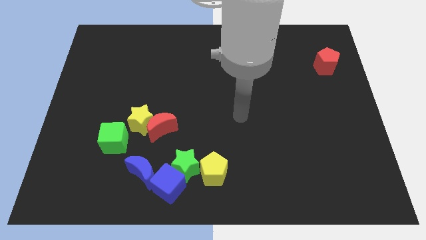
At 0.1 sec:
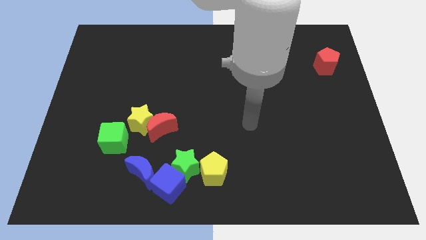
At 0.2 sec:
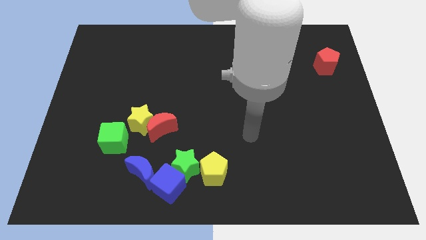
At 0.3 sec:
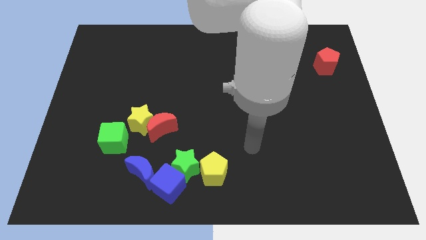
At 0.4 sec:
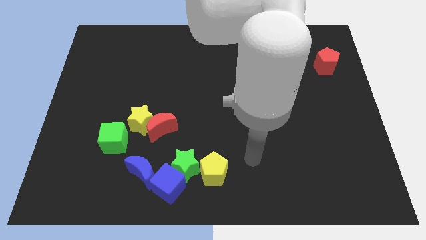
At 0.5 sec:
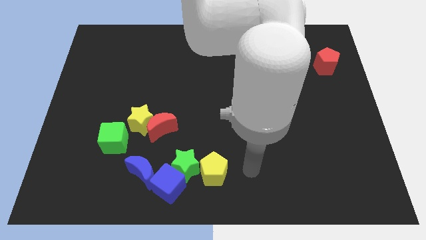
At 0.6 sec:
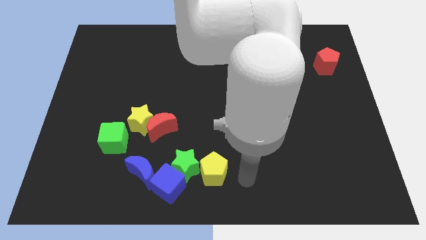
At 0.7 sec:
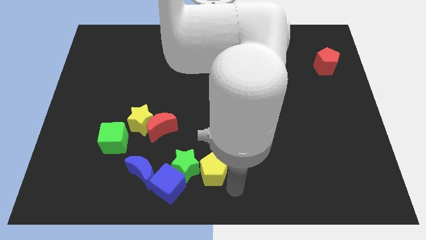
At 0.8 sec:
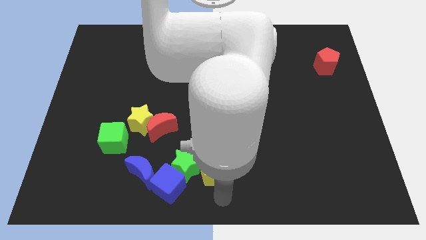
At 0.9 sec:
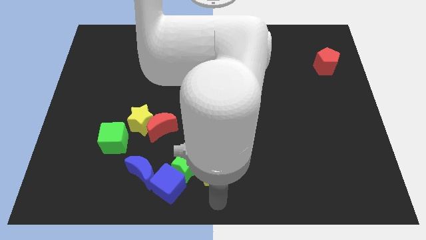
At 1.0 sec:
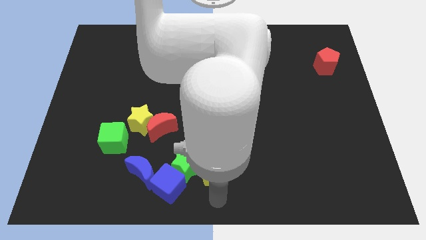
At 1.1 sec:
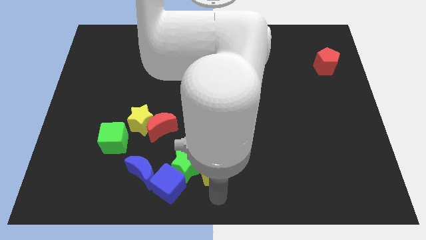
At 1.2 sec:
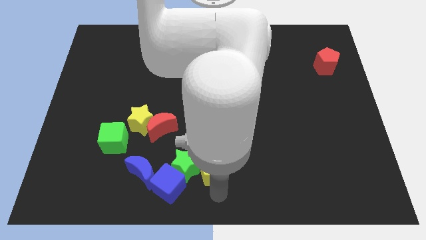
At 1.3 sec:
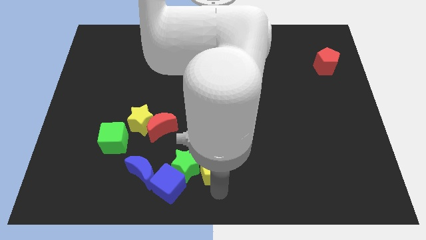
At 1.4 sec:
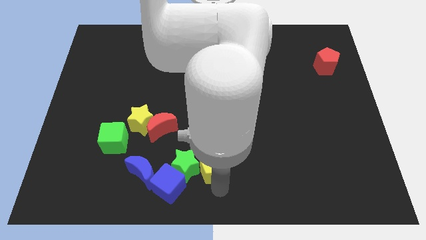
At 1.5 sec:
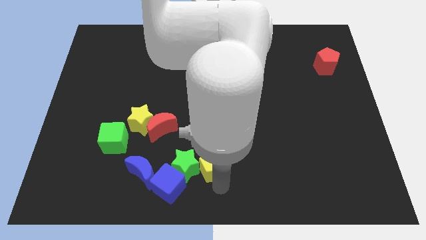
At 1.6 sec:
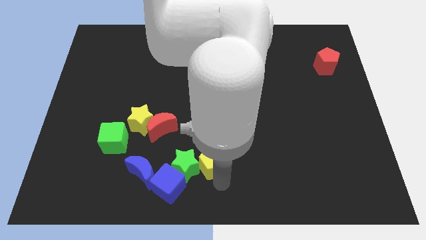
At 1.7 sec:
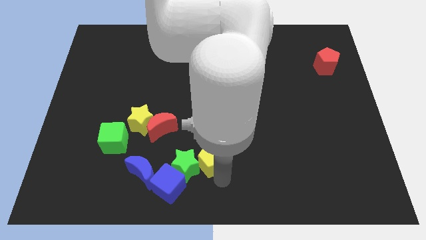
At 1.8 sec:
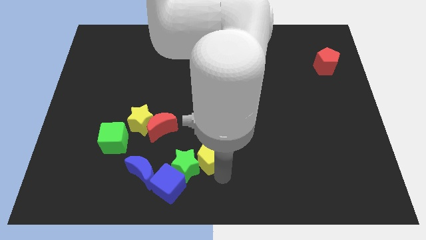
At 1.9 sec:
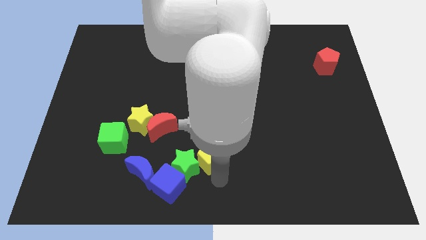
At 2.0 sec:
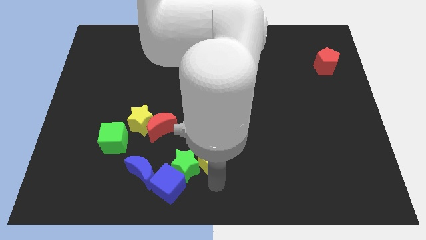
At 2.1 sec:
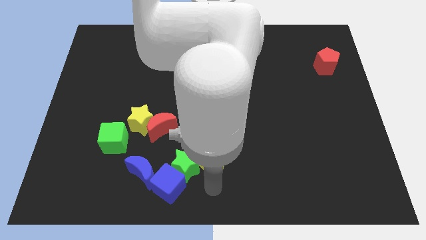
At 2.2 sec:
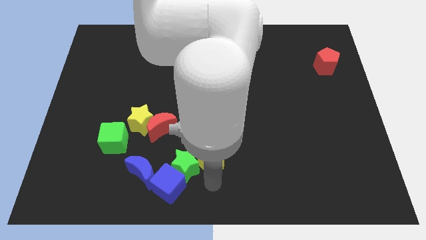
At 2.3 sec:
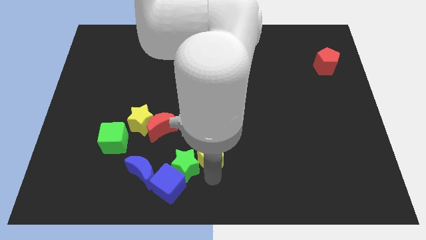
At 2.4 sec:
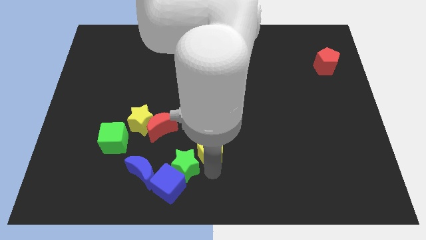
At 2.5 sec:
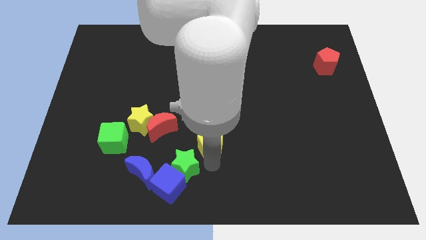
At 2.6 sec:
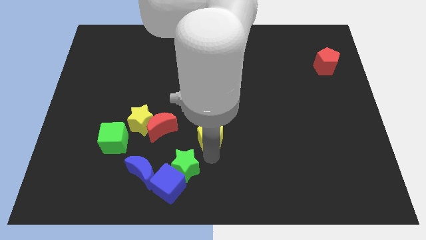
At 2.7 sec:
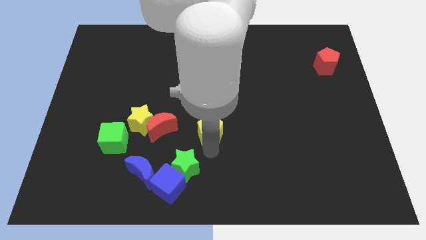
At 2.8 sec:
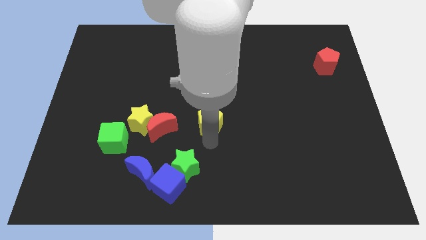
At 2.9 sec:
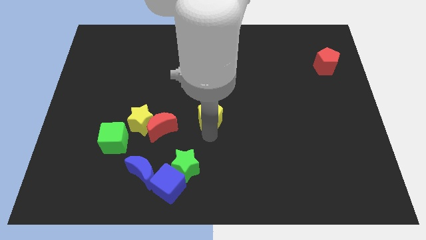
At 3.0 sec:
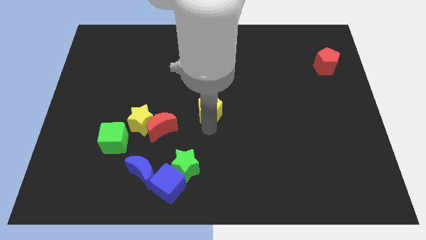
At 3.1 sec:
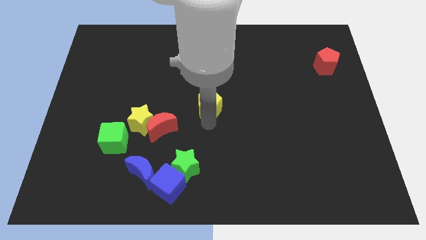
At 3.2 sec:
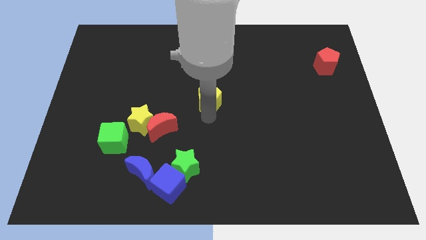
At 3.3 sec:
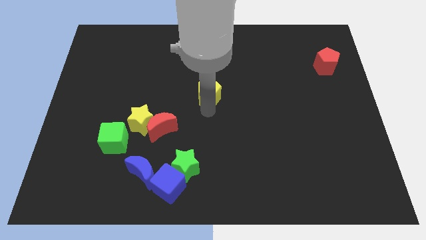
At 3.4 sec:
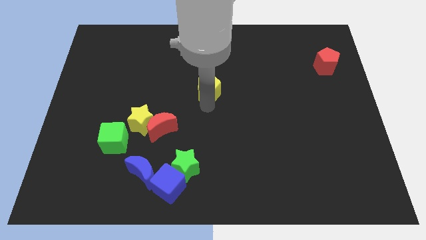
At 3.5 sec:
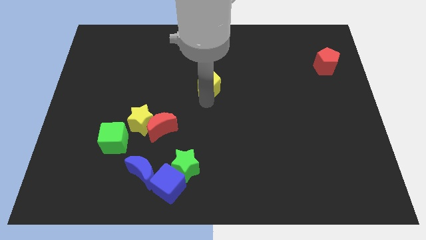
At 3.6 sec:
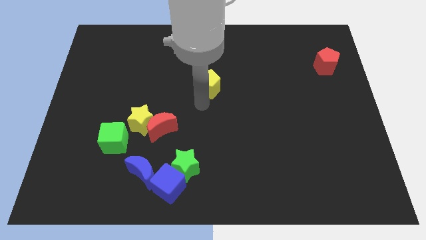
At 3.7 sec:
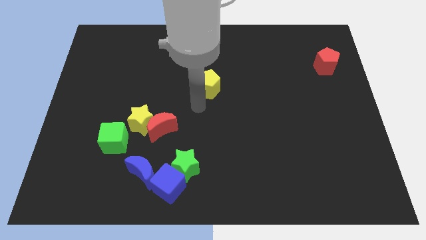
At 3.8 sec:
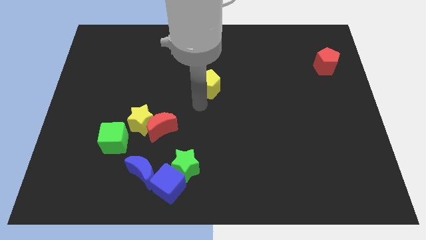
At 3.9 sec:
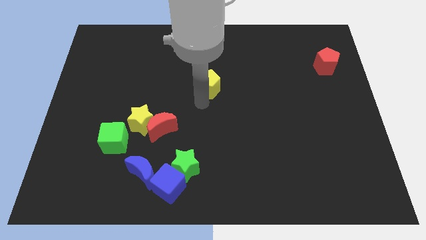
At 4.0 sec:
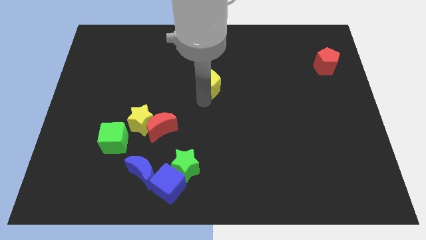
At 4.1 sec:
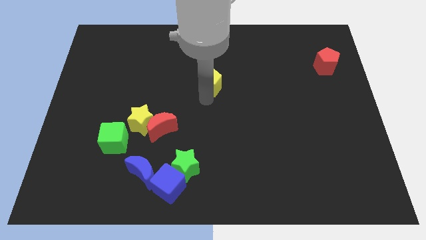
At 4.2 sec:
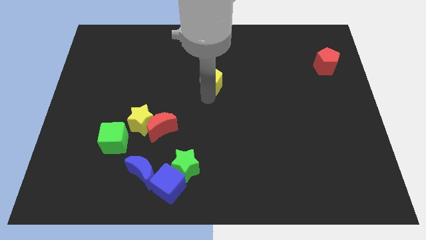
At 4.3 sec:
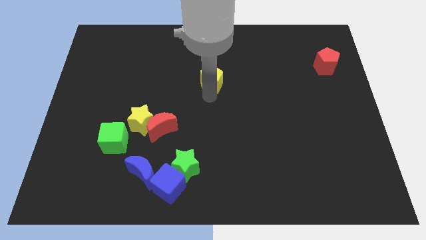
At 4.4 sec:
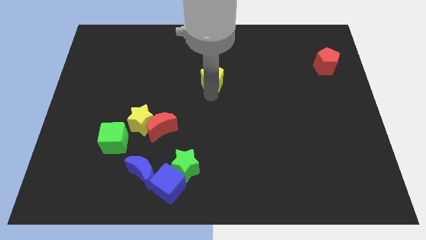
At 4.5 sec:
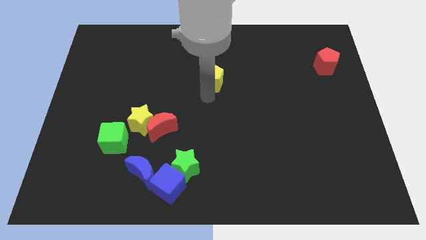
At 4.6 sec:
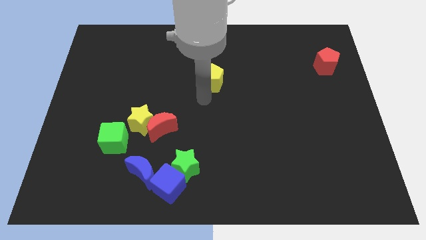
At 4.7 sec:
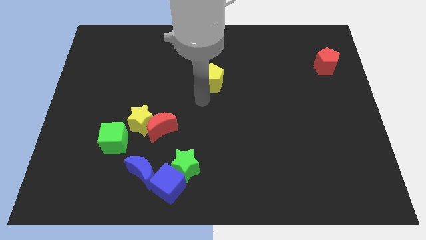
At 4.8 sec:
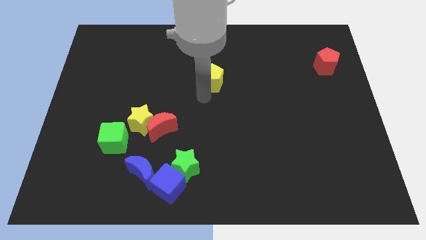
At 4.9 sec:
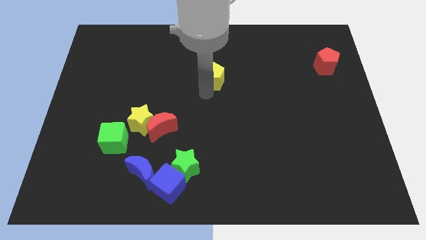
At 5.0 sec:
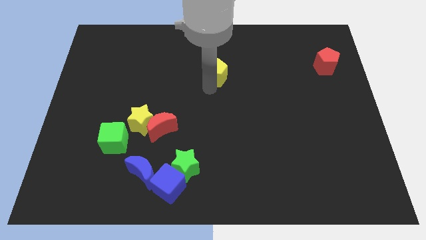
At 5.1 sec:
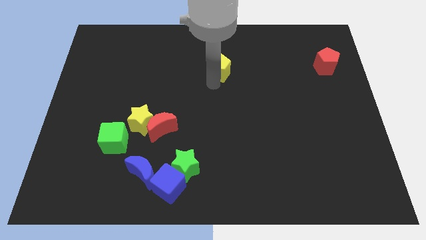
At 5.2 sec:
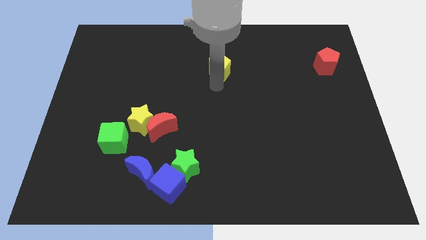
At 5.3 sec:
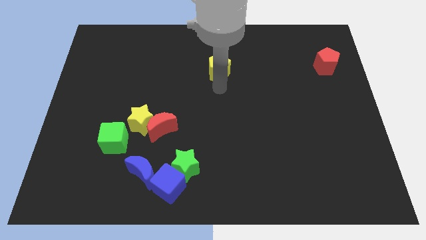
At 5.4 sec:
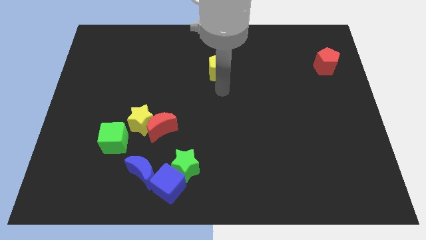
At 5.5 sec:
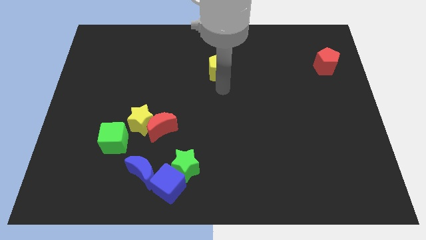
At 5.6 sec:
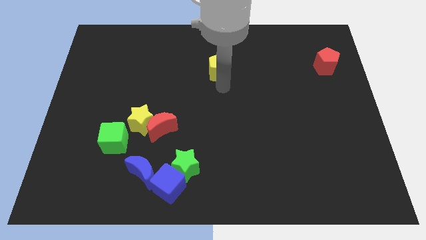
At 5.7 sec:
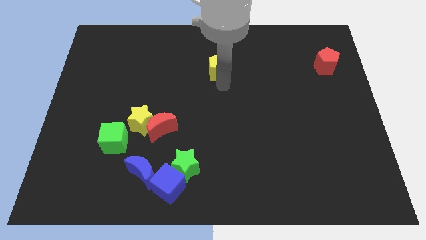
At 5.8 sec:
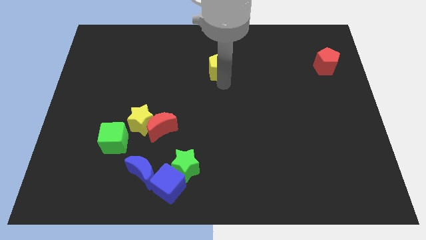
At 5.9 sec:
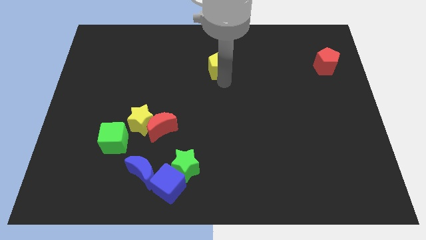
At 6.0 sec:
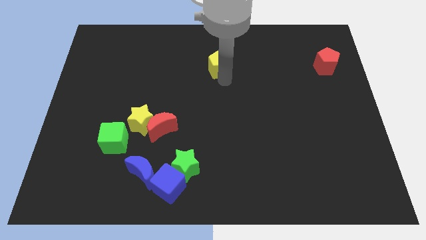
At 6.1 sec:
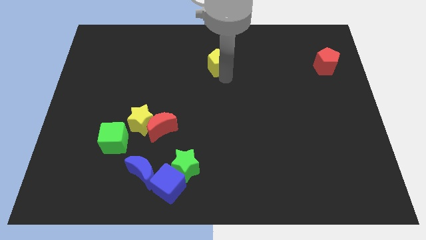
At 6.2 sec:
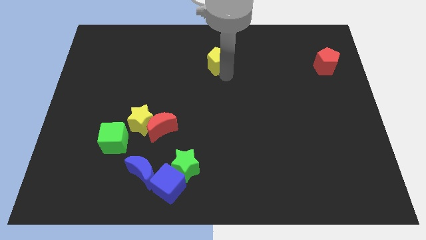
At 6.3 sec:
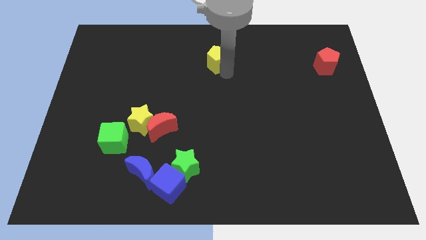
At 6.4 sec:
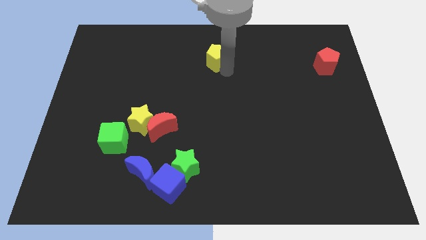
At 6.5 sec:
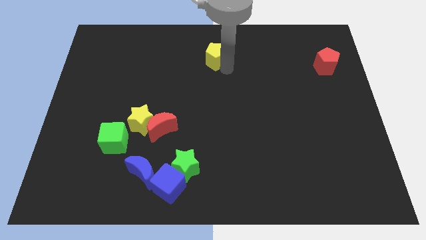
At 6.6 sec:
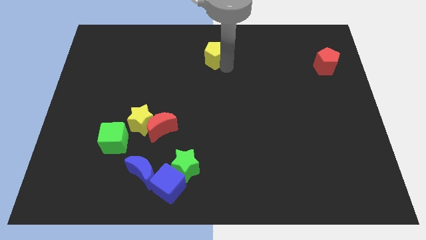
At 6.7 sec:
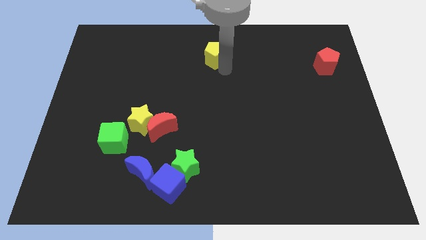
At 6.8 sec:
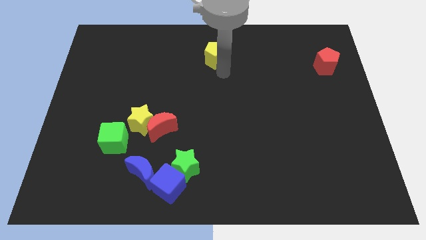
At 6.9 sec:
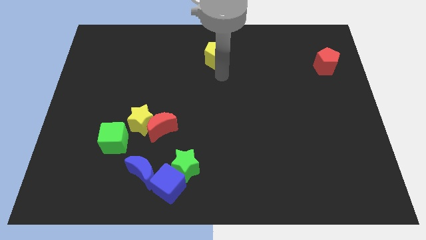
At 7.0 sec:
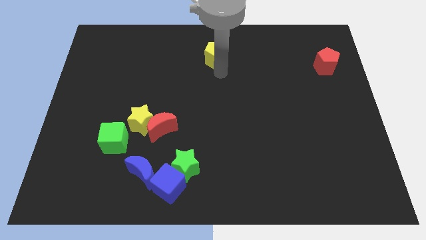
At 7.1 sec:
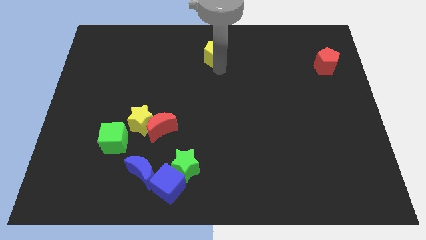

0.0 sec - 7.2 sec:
put the yellow pentagon to the top
